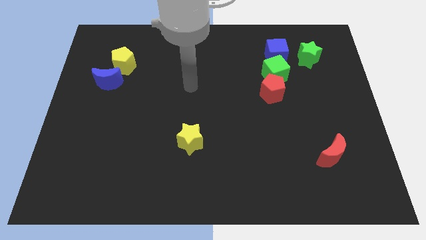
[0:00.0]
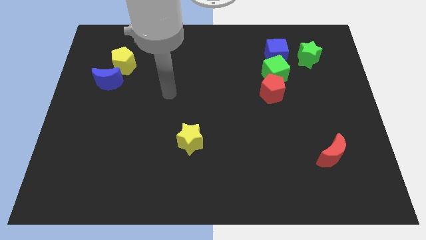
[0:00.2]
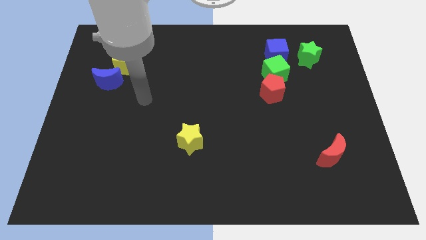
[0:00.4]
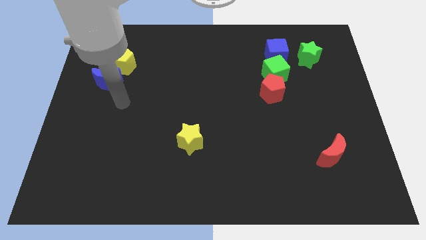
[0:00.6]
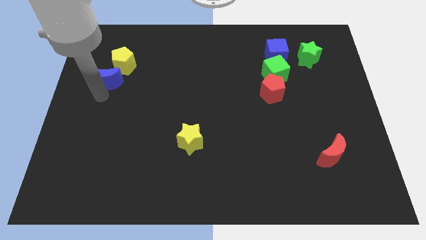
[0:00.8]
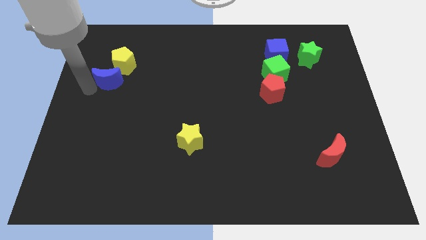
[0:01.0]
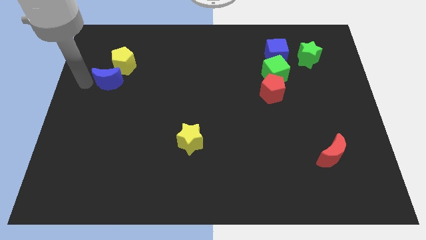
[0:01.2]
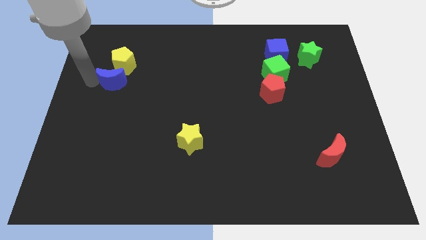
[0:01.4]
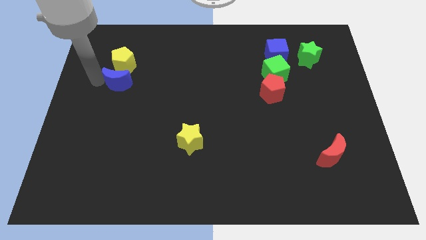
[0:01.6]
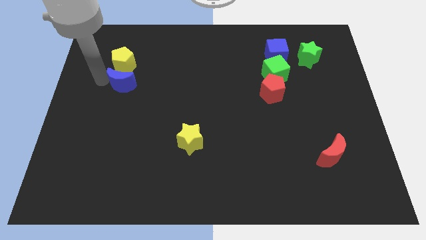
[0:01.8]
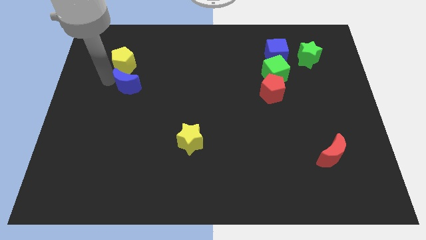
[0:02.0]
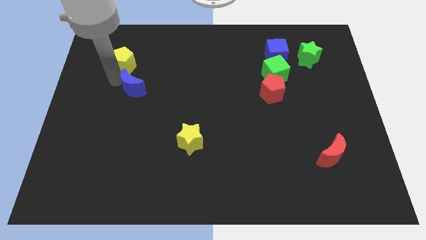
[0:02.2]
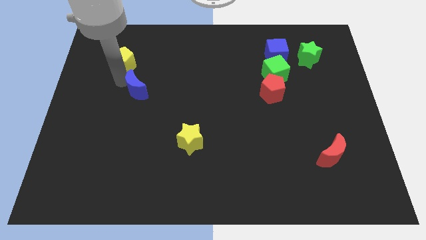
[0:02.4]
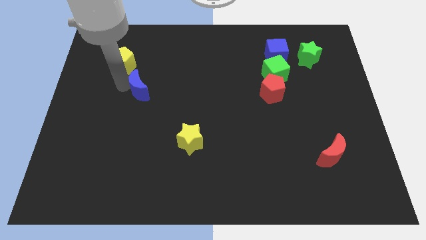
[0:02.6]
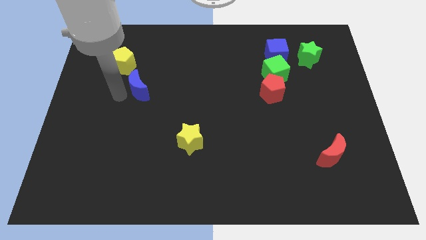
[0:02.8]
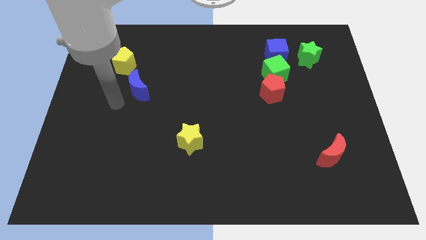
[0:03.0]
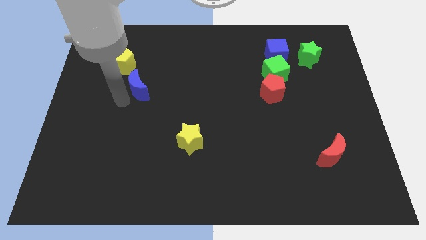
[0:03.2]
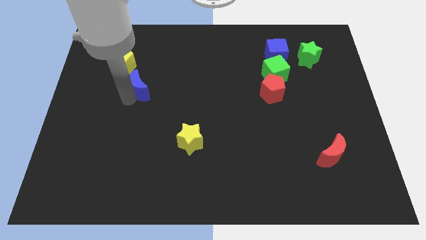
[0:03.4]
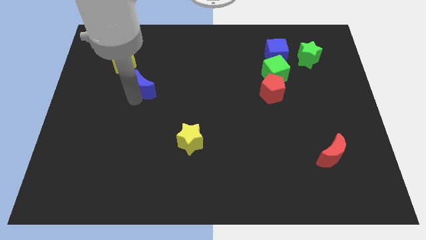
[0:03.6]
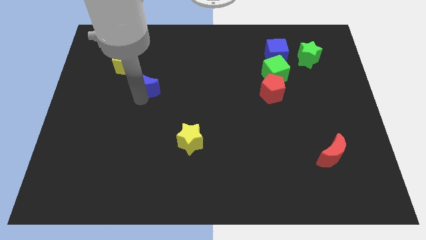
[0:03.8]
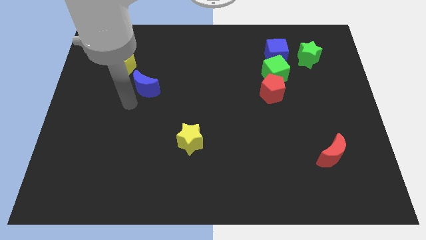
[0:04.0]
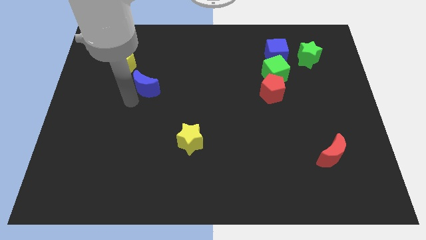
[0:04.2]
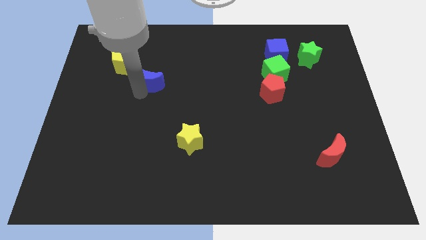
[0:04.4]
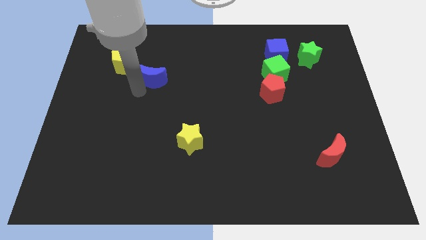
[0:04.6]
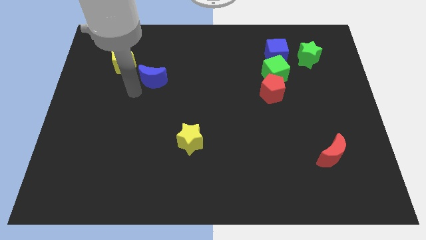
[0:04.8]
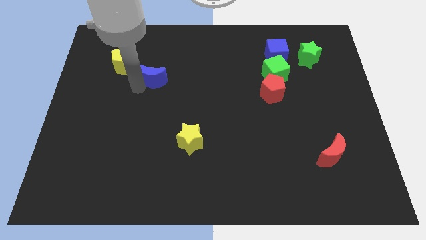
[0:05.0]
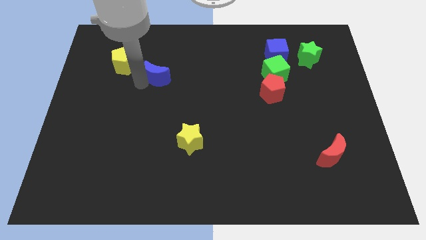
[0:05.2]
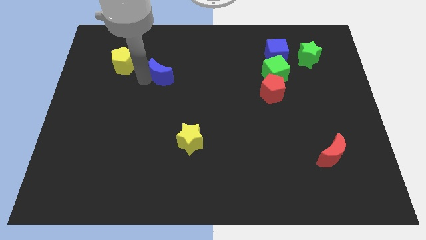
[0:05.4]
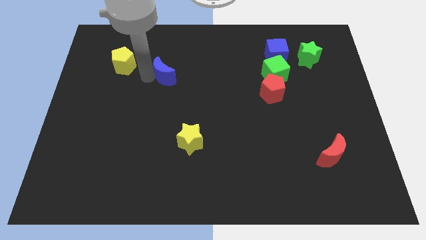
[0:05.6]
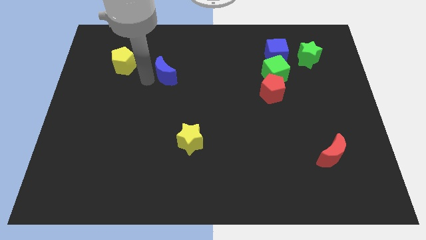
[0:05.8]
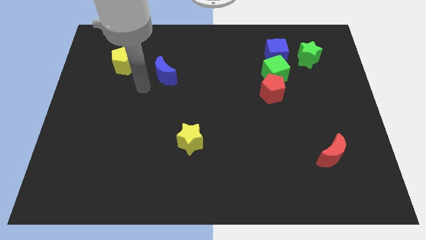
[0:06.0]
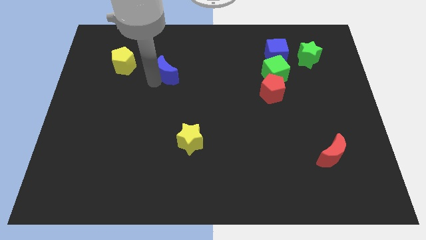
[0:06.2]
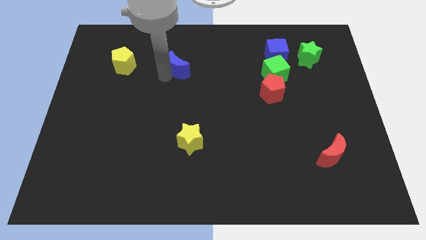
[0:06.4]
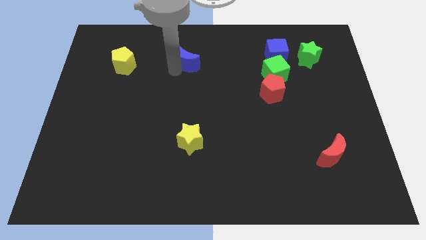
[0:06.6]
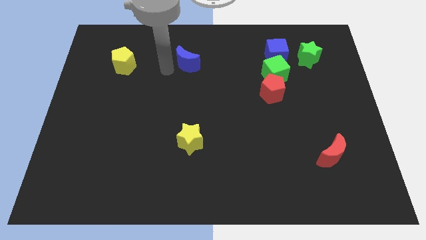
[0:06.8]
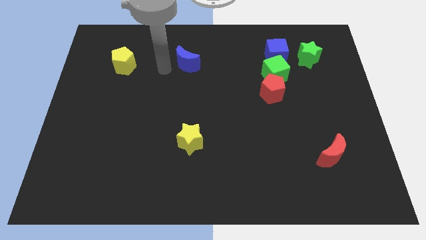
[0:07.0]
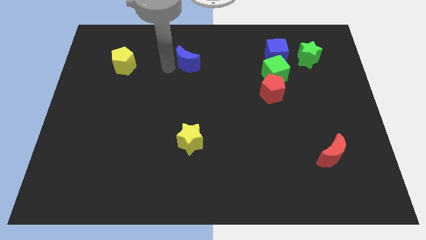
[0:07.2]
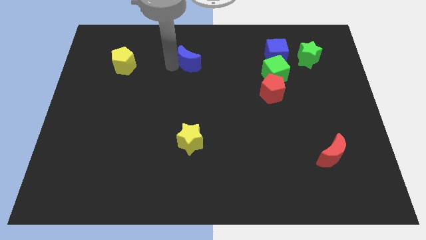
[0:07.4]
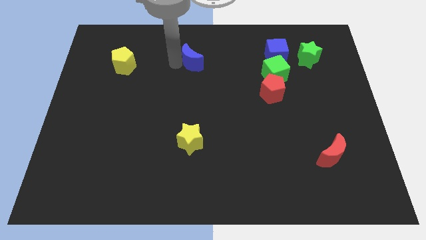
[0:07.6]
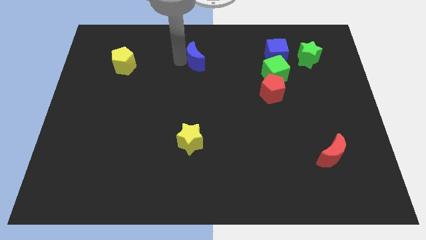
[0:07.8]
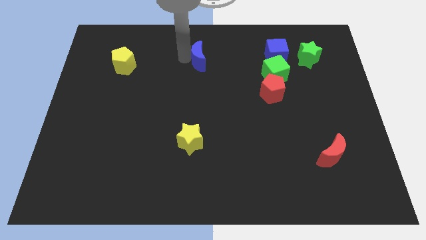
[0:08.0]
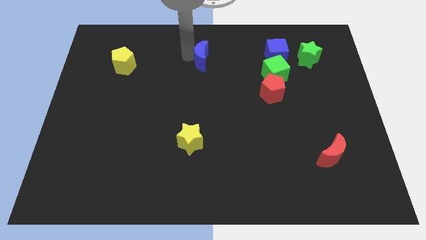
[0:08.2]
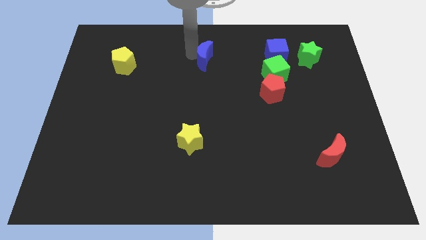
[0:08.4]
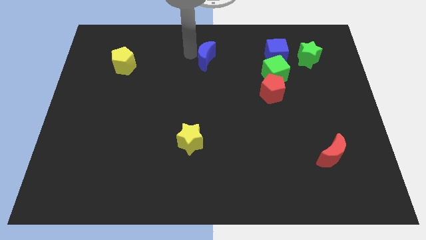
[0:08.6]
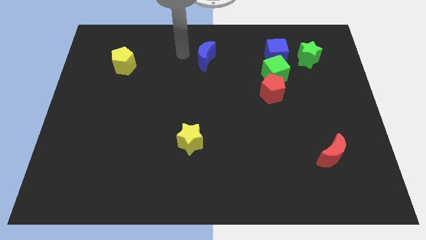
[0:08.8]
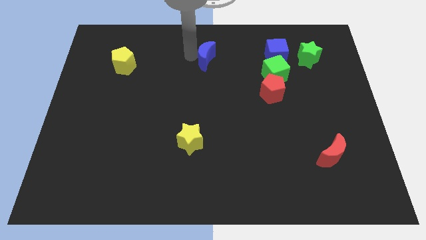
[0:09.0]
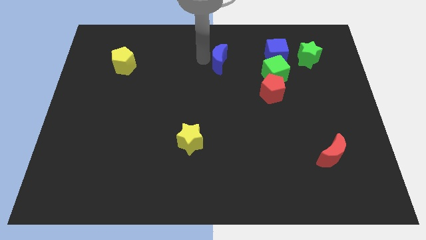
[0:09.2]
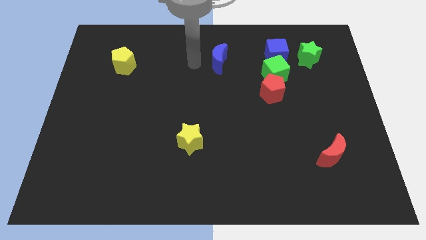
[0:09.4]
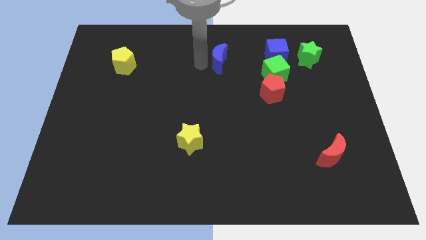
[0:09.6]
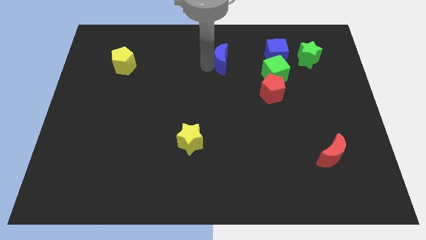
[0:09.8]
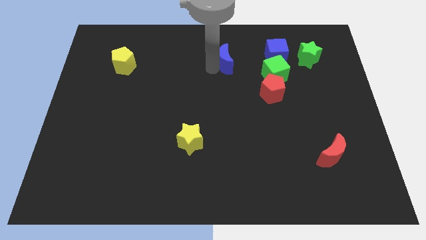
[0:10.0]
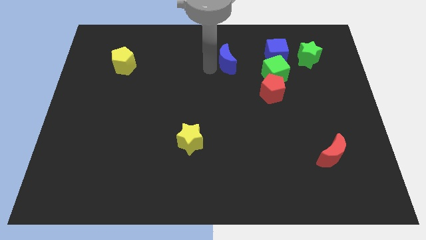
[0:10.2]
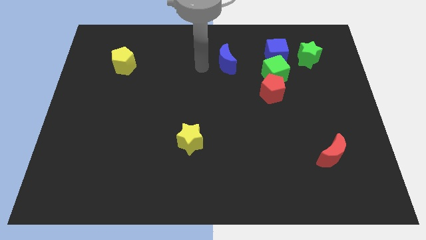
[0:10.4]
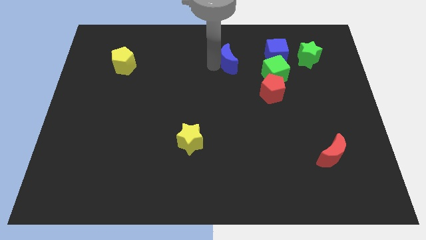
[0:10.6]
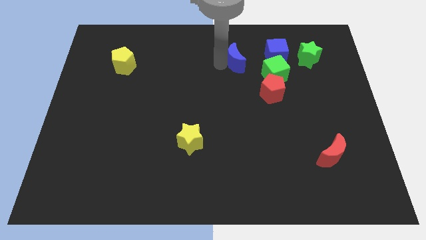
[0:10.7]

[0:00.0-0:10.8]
move the blue moon to the top left side of the green cube

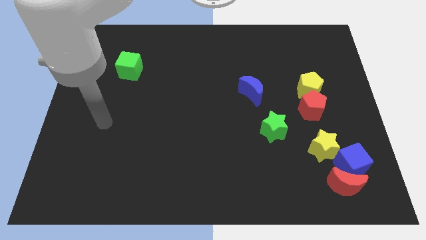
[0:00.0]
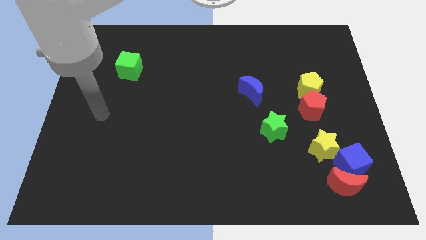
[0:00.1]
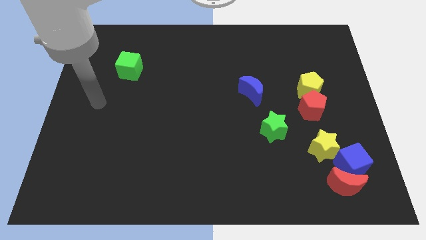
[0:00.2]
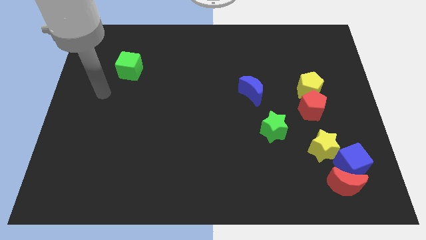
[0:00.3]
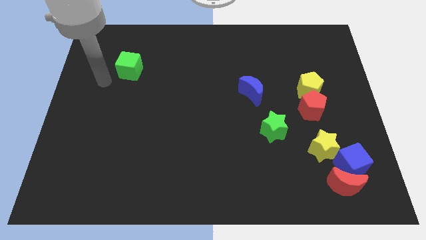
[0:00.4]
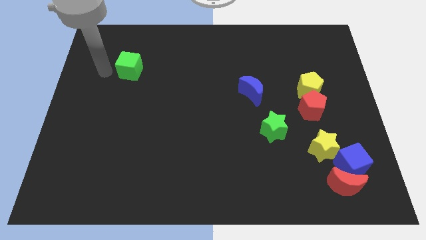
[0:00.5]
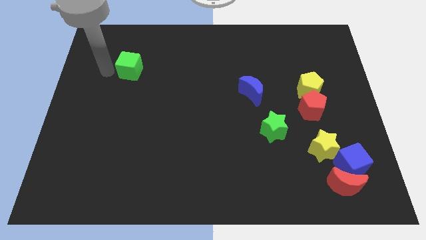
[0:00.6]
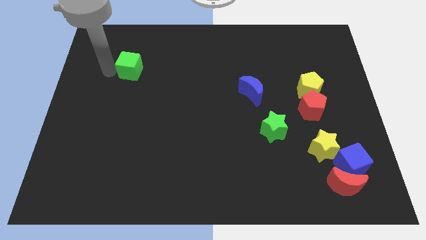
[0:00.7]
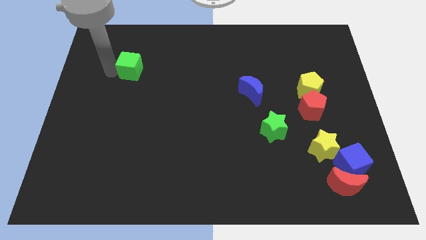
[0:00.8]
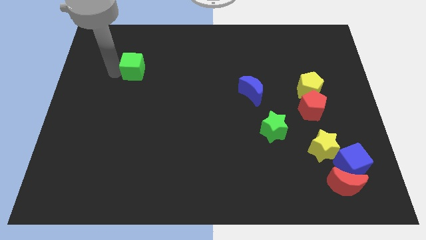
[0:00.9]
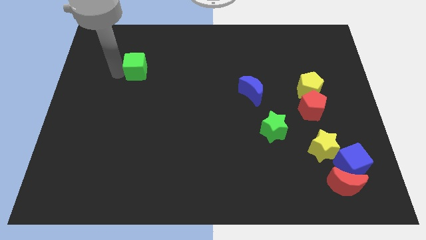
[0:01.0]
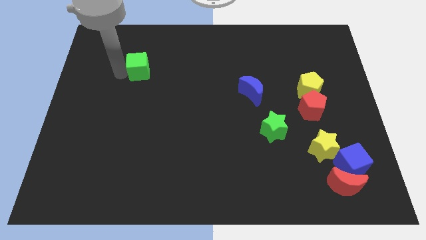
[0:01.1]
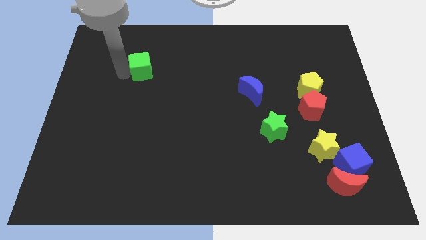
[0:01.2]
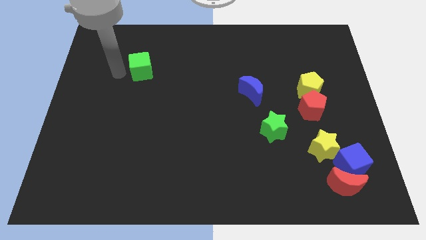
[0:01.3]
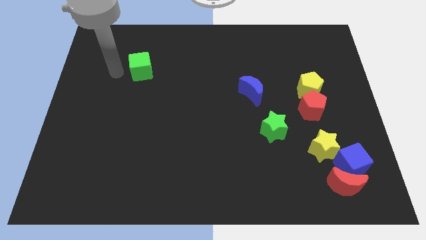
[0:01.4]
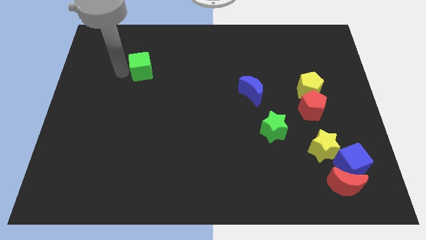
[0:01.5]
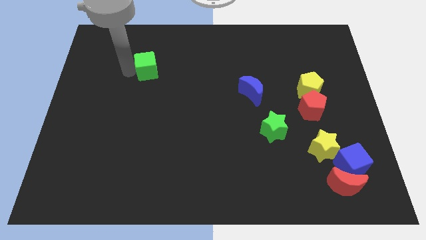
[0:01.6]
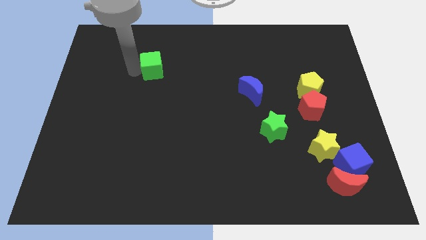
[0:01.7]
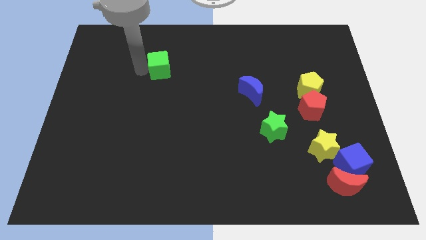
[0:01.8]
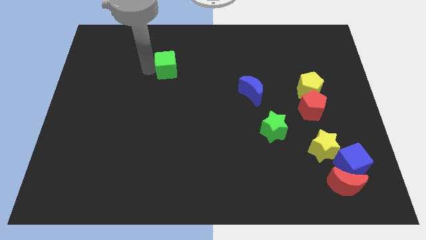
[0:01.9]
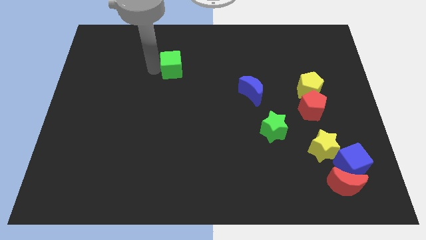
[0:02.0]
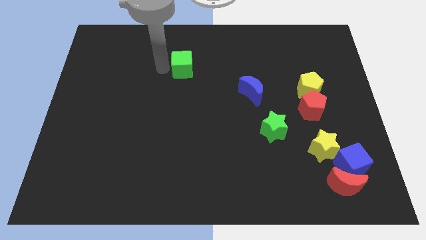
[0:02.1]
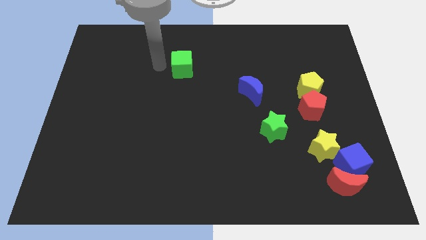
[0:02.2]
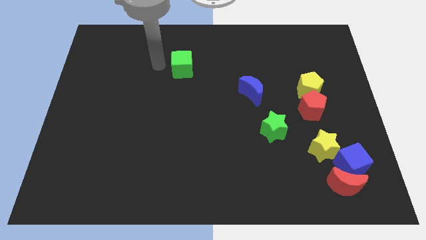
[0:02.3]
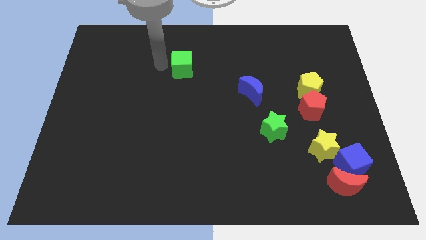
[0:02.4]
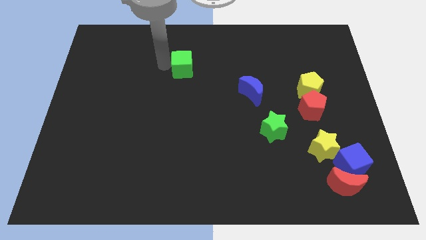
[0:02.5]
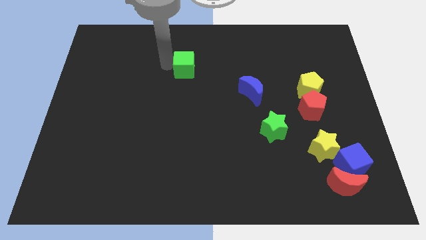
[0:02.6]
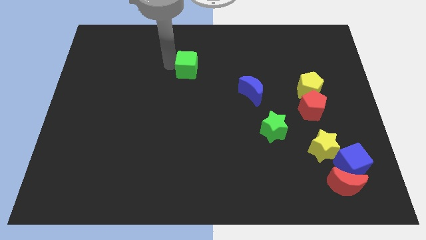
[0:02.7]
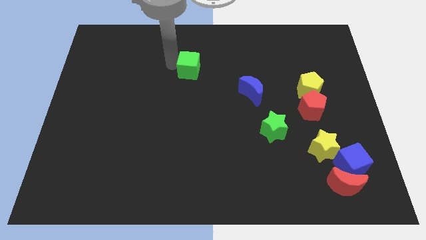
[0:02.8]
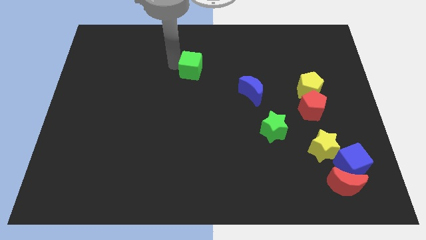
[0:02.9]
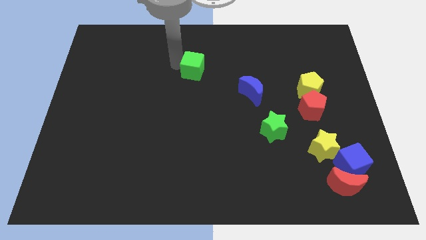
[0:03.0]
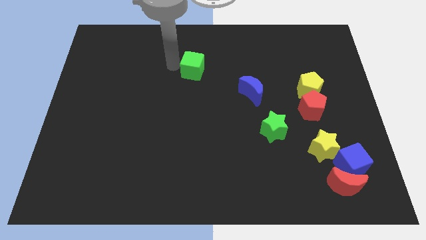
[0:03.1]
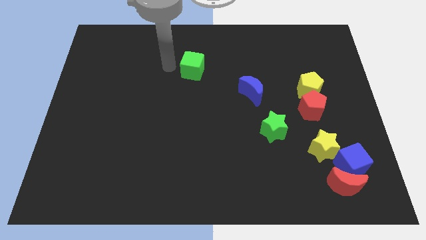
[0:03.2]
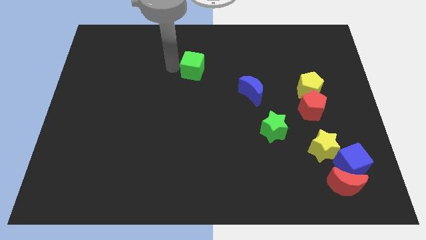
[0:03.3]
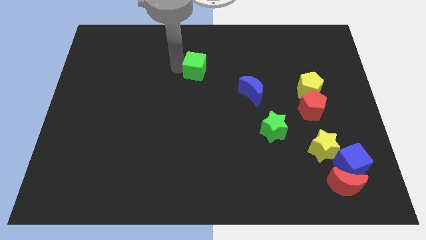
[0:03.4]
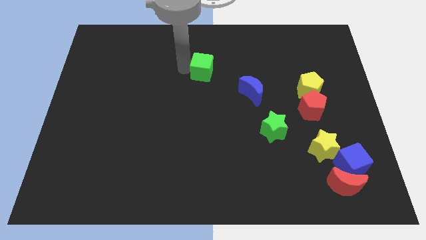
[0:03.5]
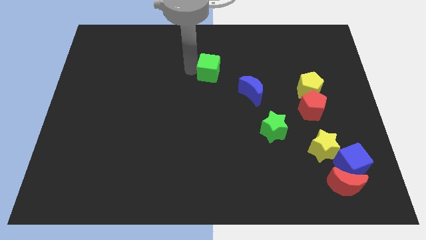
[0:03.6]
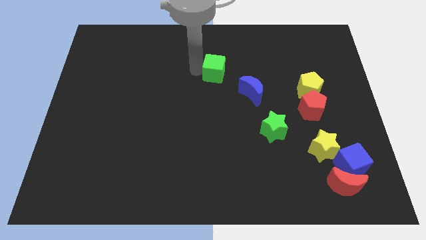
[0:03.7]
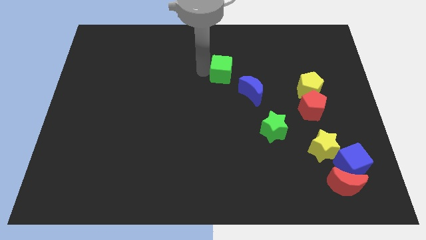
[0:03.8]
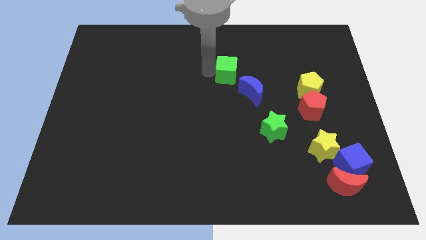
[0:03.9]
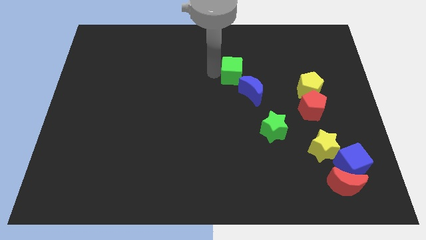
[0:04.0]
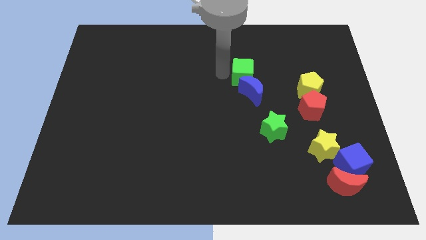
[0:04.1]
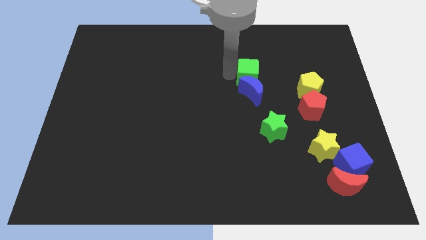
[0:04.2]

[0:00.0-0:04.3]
move the green cube to the top right side of the blue moon
